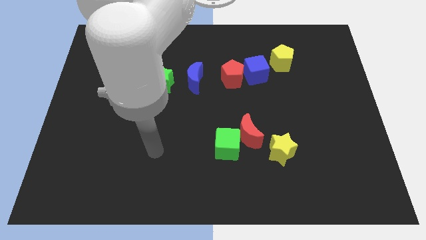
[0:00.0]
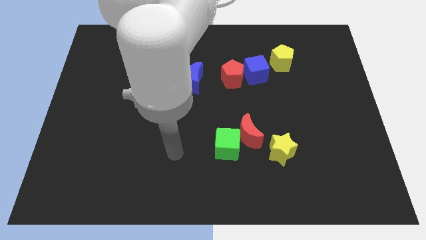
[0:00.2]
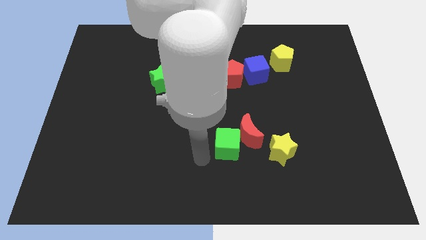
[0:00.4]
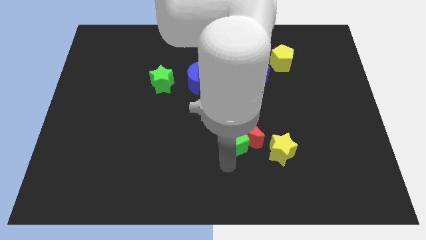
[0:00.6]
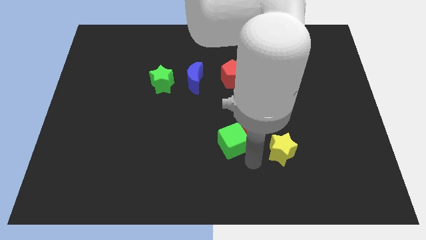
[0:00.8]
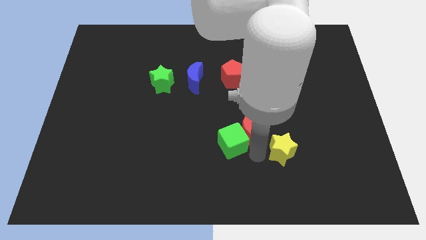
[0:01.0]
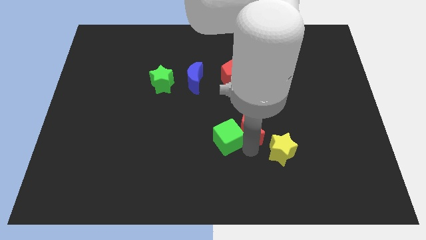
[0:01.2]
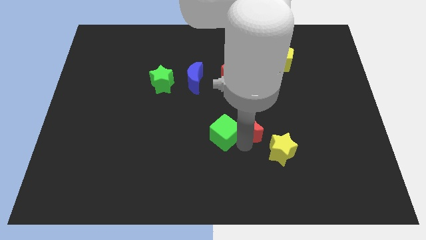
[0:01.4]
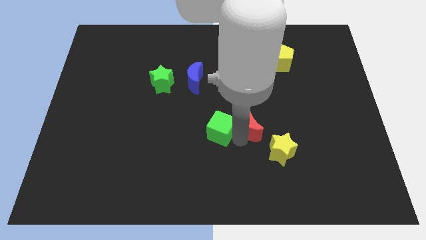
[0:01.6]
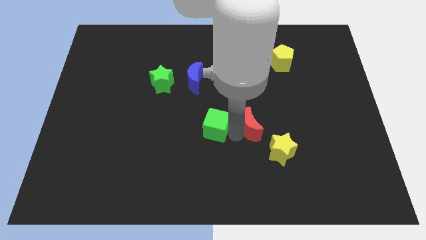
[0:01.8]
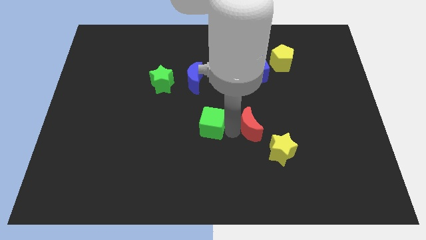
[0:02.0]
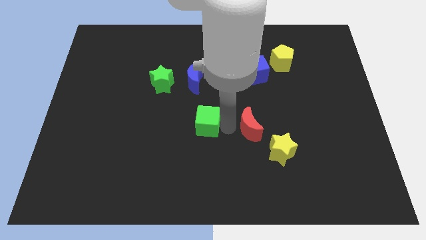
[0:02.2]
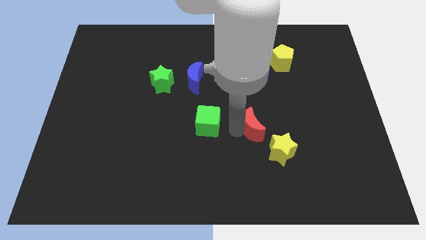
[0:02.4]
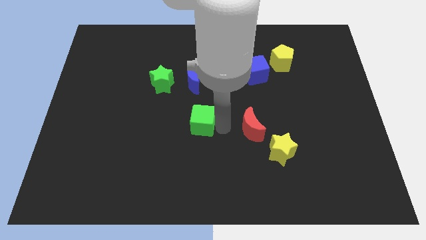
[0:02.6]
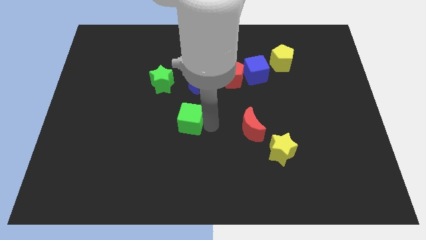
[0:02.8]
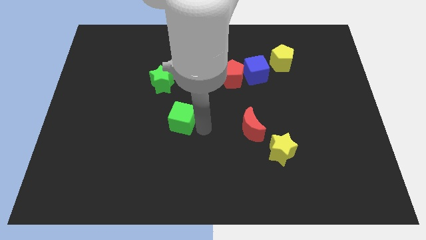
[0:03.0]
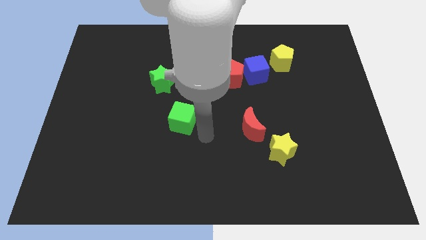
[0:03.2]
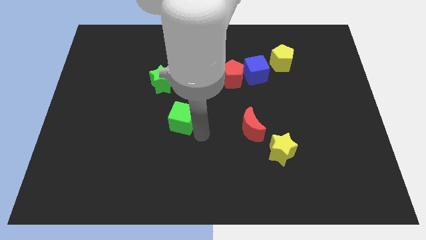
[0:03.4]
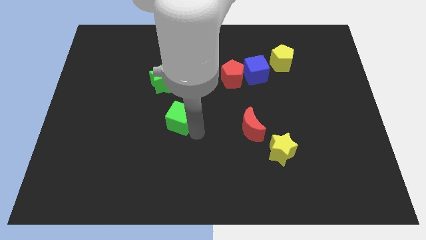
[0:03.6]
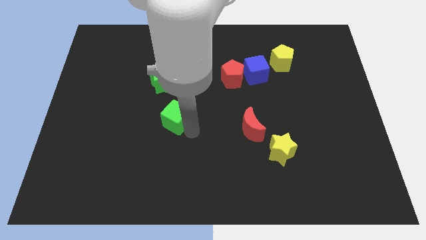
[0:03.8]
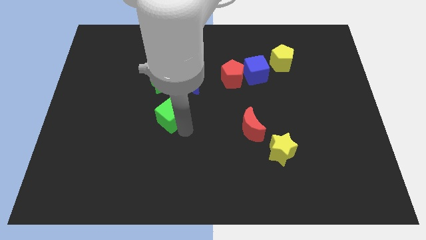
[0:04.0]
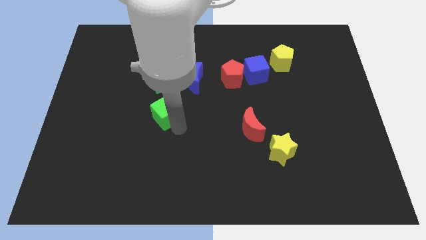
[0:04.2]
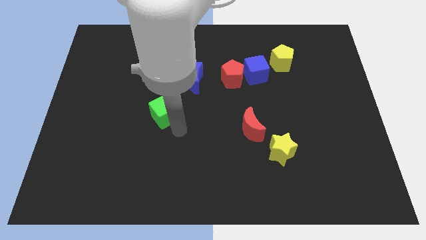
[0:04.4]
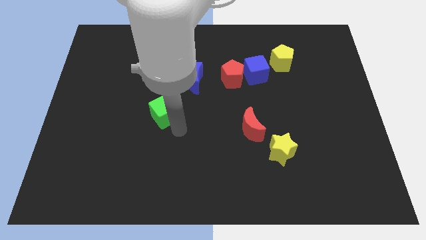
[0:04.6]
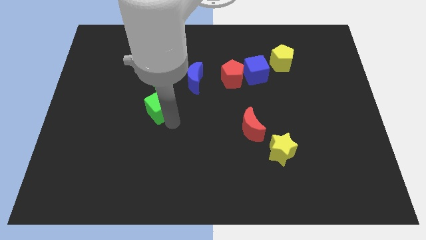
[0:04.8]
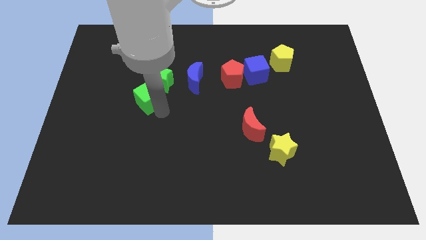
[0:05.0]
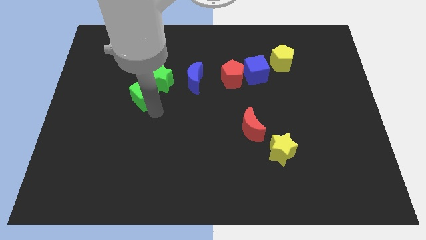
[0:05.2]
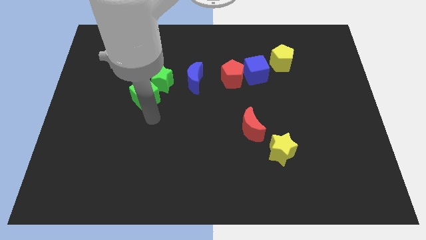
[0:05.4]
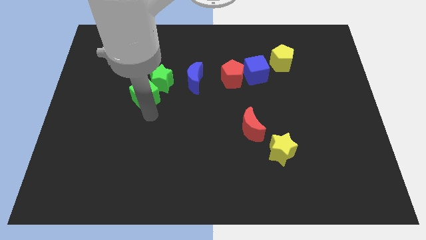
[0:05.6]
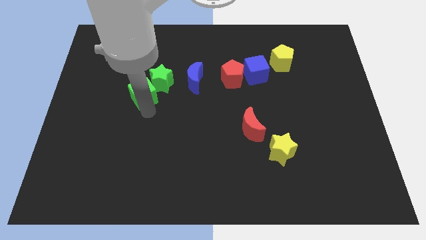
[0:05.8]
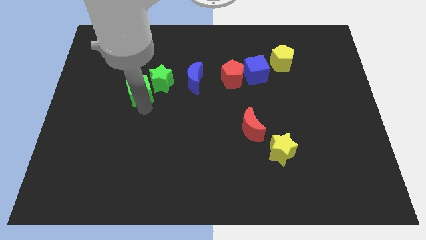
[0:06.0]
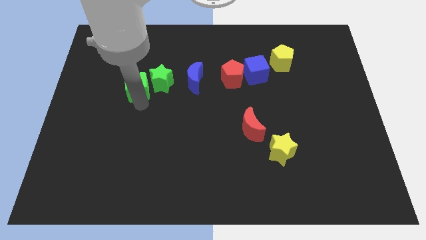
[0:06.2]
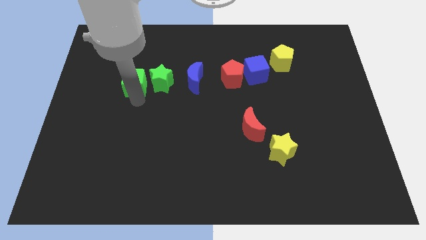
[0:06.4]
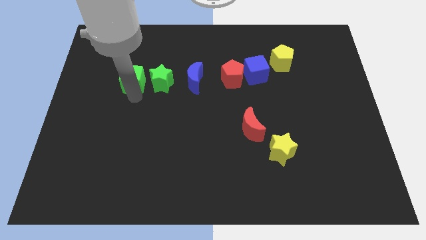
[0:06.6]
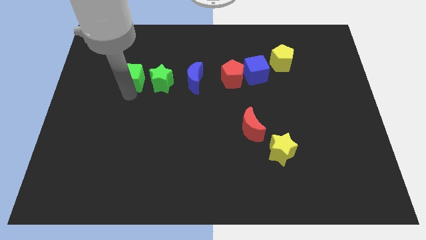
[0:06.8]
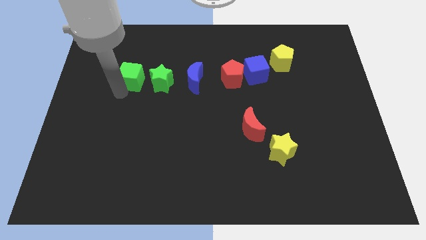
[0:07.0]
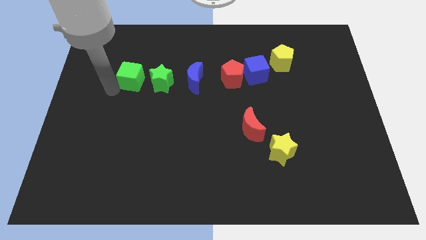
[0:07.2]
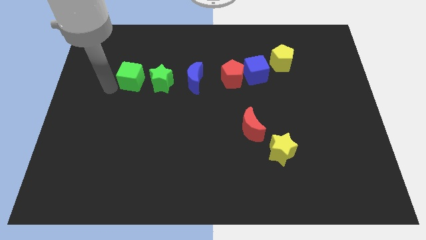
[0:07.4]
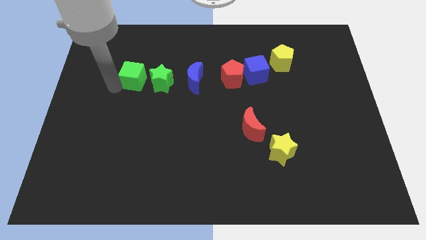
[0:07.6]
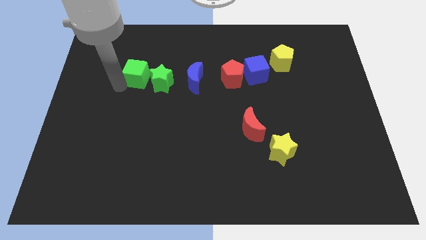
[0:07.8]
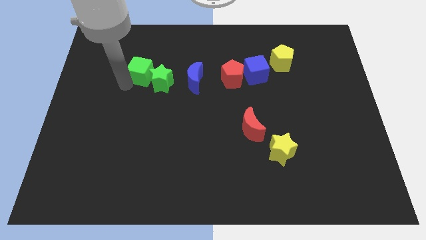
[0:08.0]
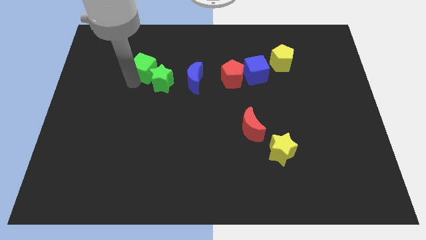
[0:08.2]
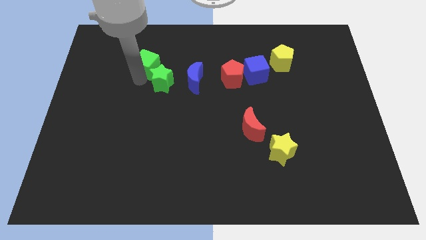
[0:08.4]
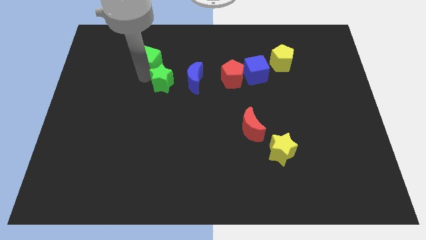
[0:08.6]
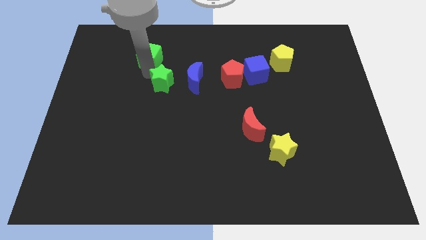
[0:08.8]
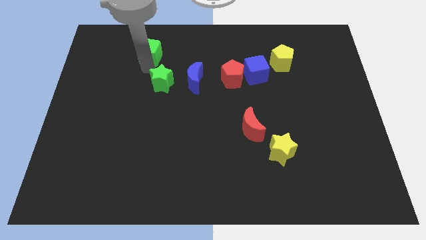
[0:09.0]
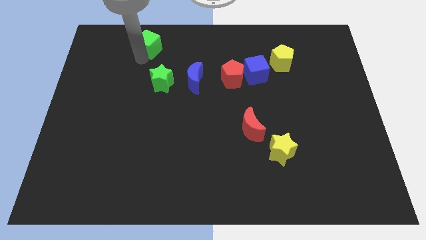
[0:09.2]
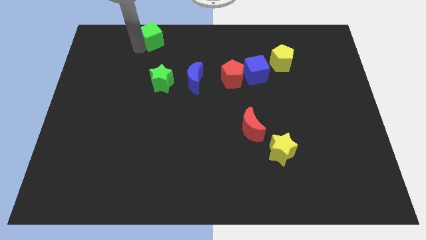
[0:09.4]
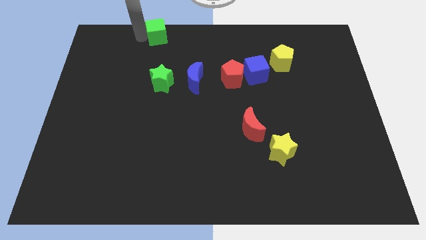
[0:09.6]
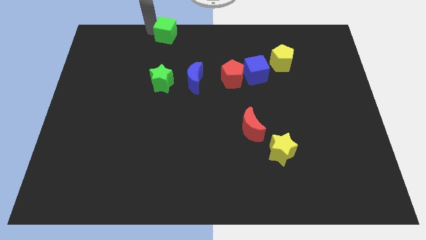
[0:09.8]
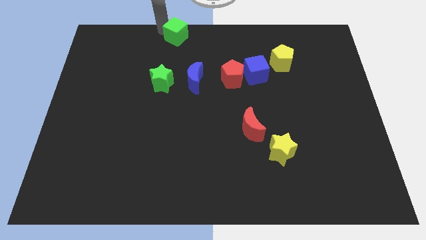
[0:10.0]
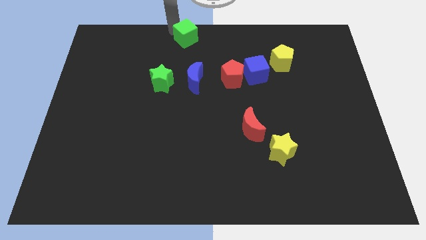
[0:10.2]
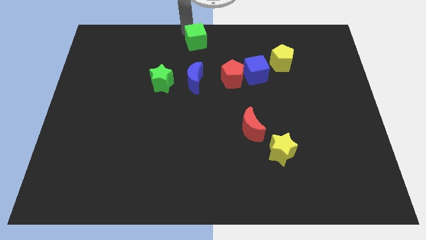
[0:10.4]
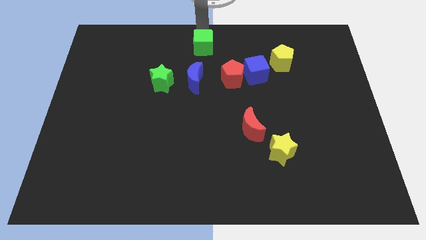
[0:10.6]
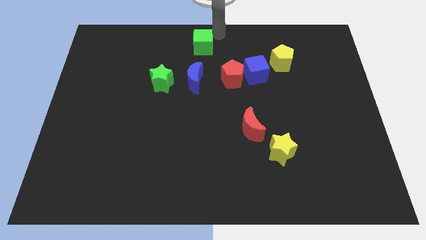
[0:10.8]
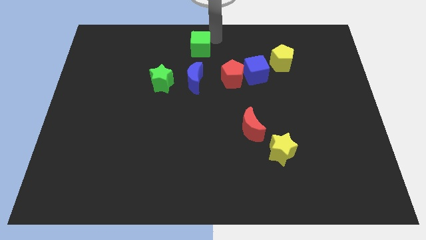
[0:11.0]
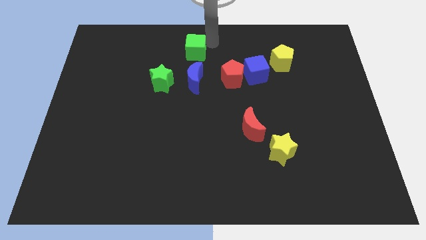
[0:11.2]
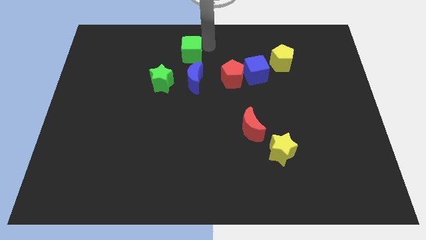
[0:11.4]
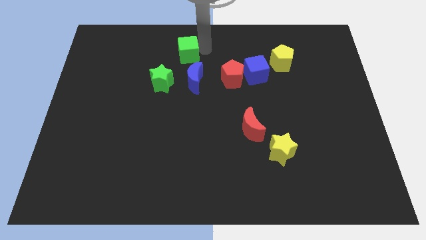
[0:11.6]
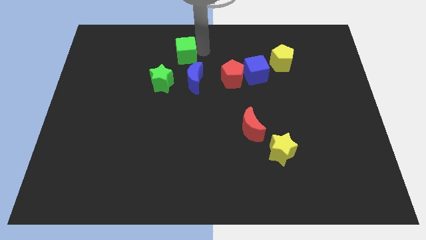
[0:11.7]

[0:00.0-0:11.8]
slide the green cube diagonally up and to the left of the blue moon

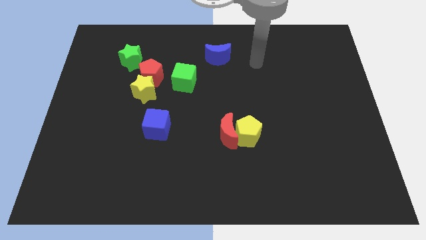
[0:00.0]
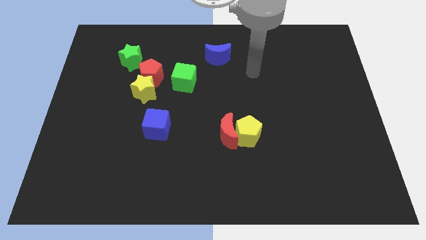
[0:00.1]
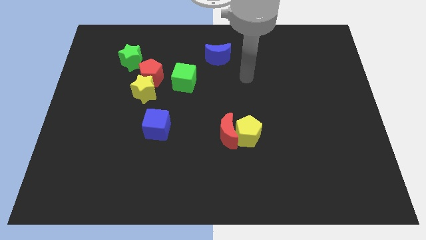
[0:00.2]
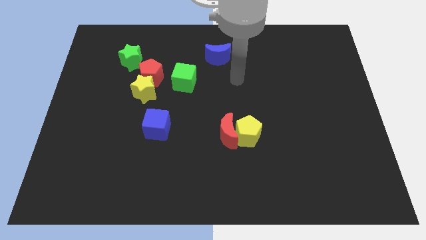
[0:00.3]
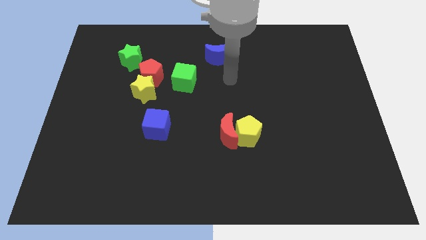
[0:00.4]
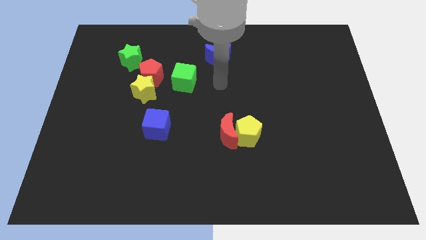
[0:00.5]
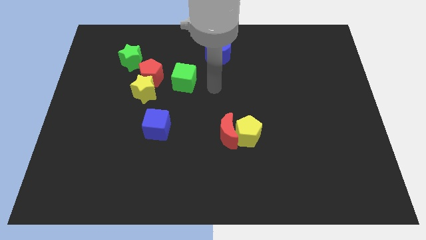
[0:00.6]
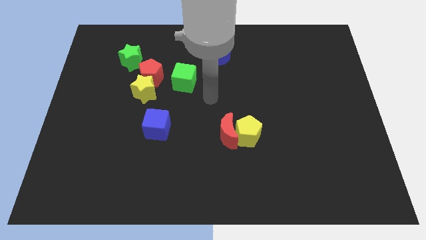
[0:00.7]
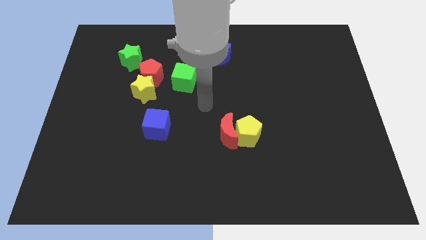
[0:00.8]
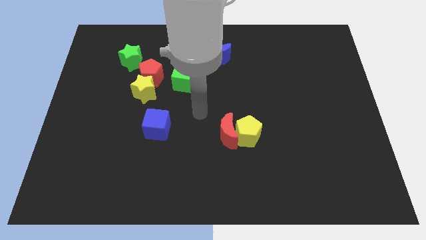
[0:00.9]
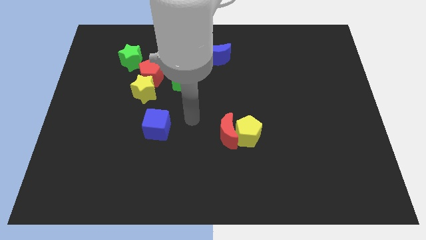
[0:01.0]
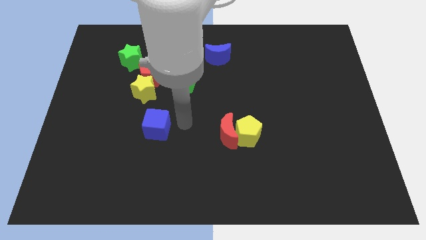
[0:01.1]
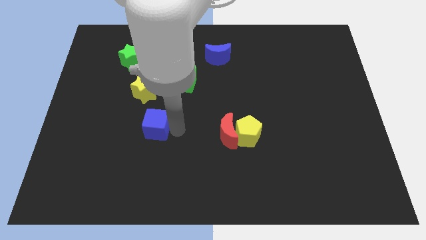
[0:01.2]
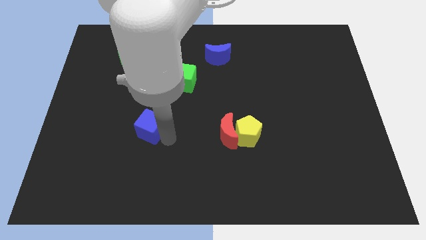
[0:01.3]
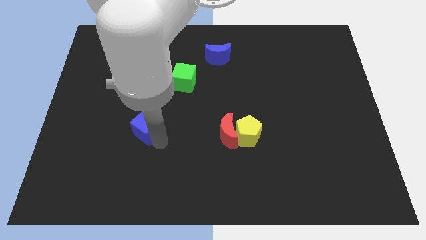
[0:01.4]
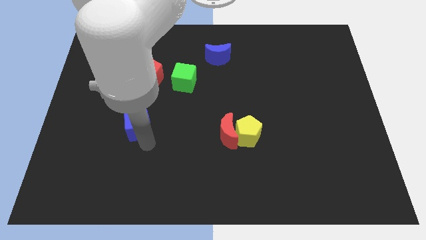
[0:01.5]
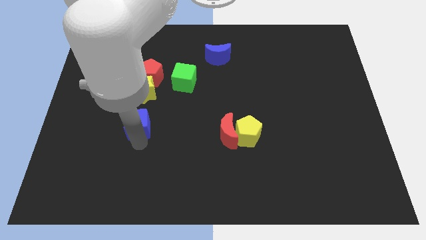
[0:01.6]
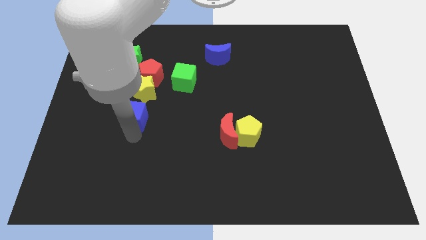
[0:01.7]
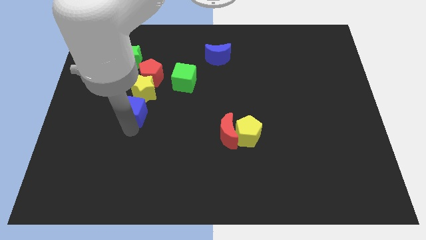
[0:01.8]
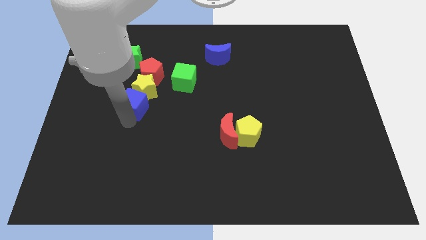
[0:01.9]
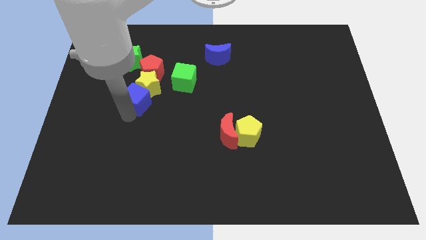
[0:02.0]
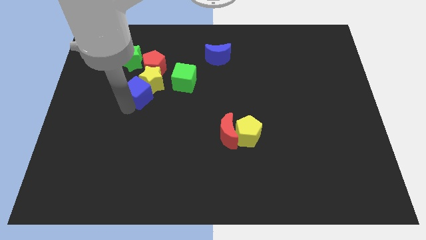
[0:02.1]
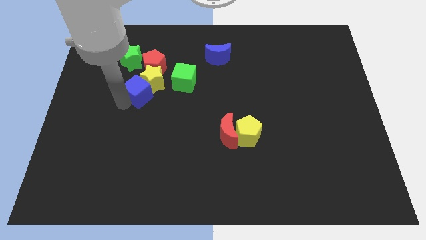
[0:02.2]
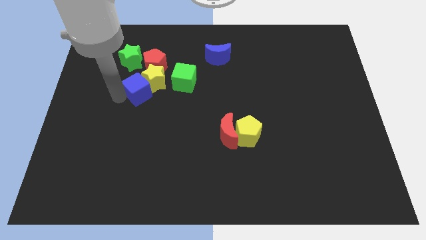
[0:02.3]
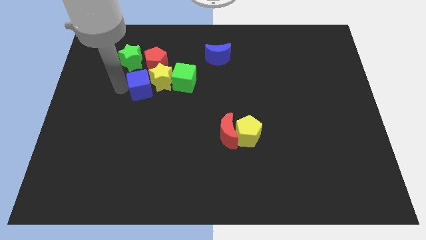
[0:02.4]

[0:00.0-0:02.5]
put the yellow star to the top left side of the green cube
